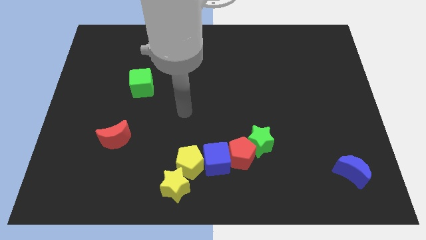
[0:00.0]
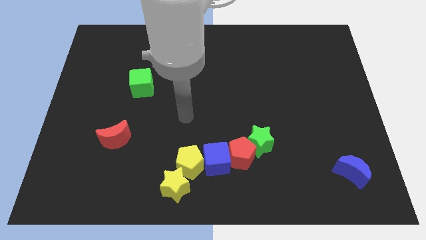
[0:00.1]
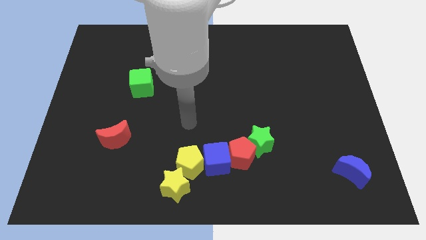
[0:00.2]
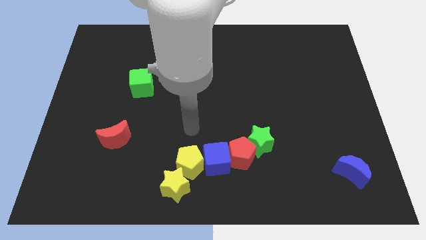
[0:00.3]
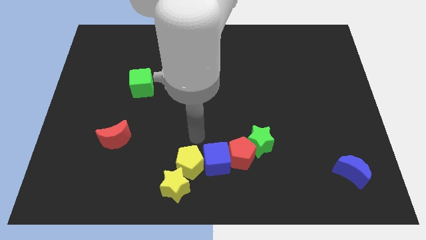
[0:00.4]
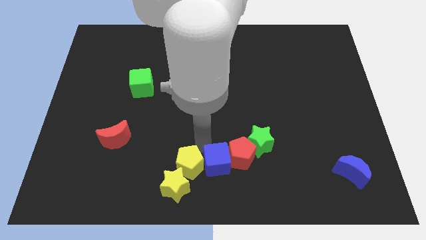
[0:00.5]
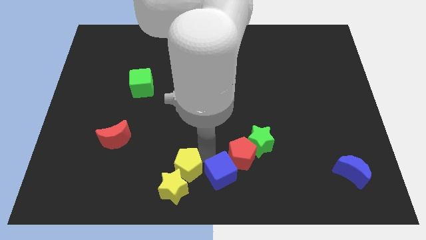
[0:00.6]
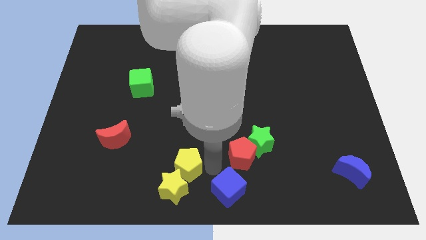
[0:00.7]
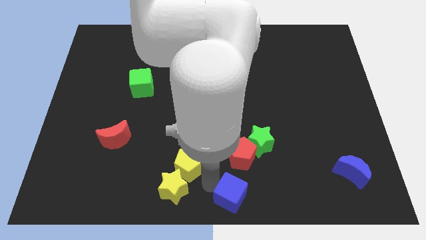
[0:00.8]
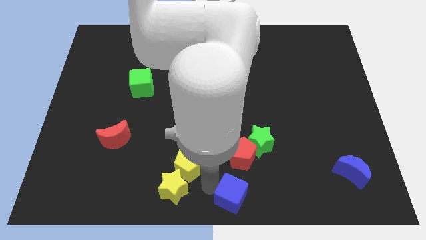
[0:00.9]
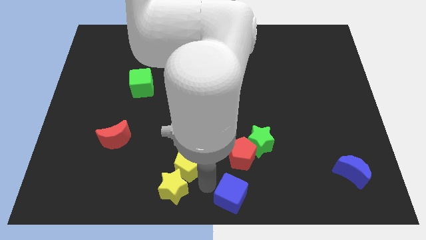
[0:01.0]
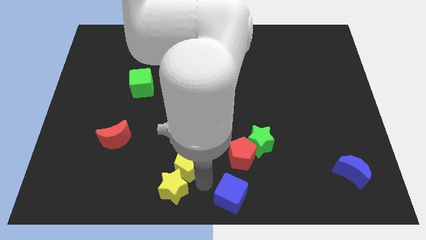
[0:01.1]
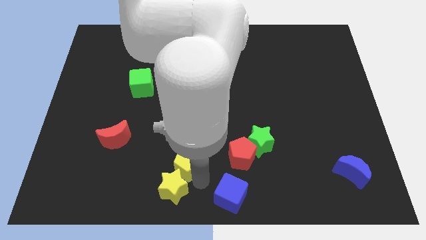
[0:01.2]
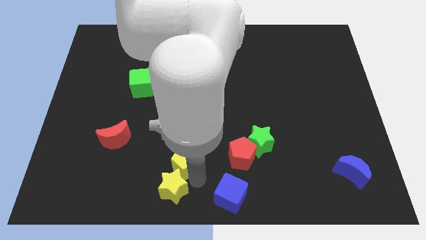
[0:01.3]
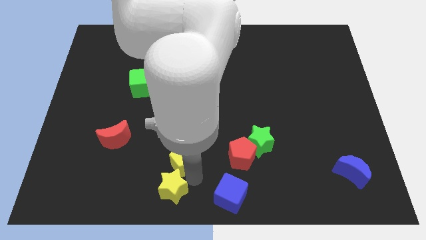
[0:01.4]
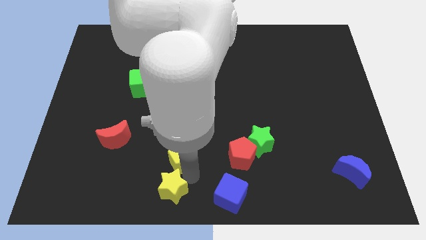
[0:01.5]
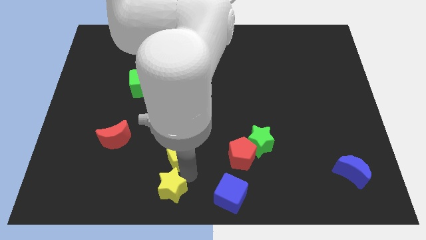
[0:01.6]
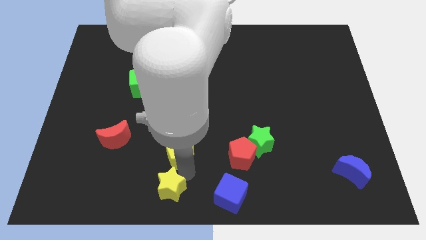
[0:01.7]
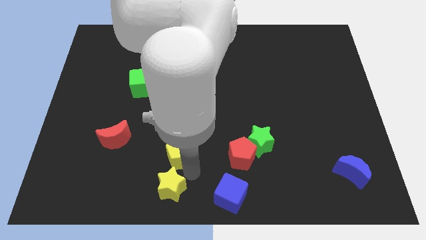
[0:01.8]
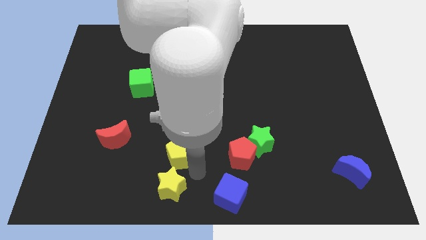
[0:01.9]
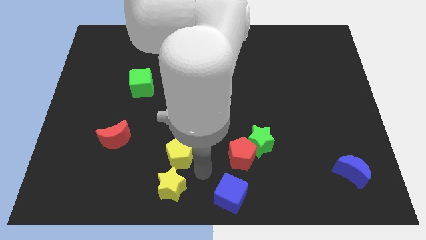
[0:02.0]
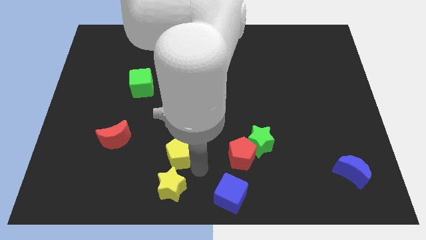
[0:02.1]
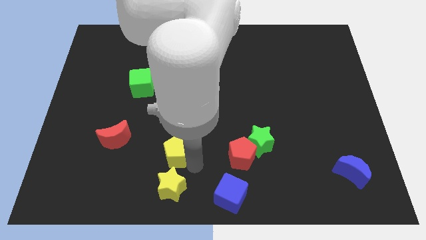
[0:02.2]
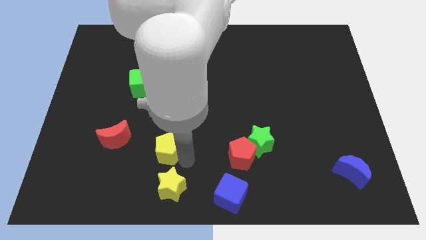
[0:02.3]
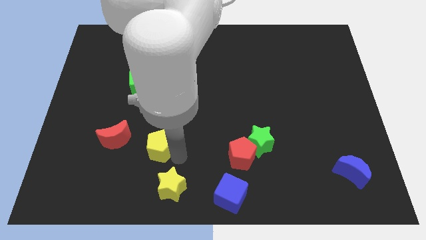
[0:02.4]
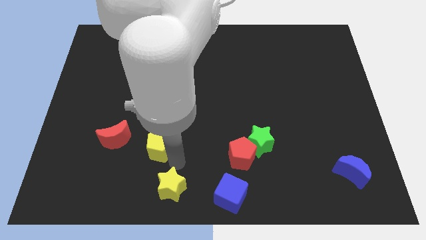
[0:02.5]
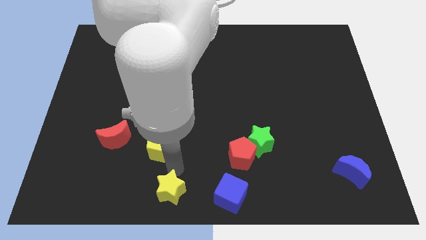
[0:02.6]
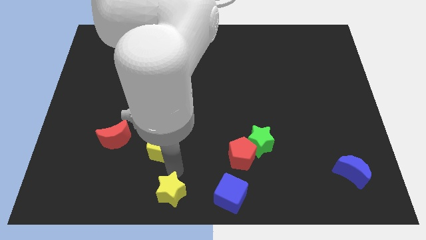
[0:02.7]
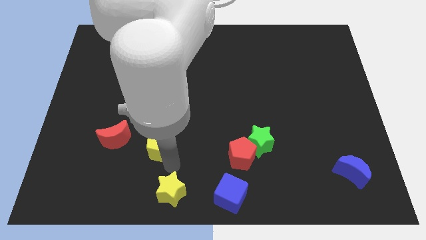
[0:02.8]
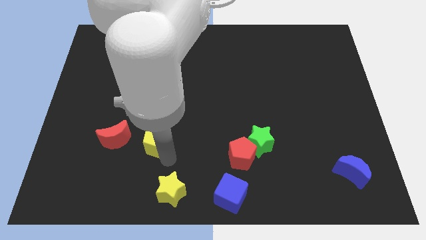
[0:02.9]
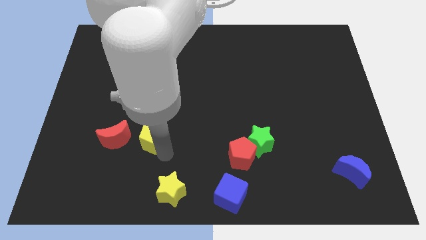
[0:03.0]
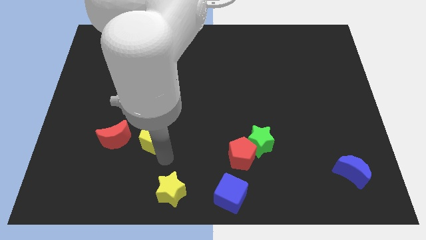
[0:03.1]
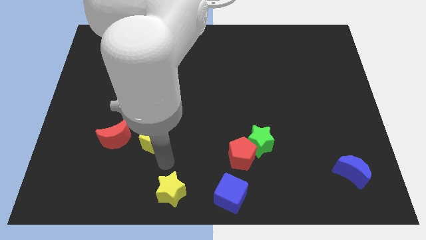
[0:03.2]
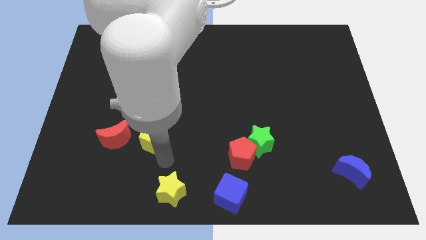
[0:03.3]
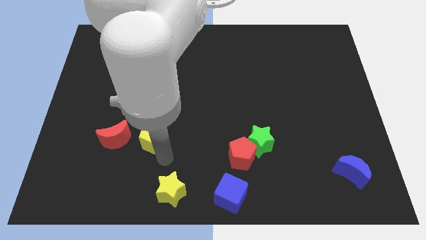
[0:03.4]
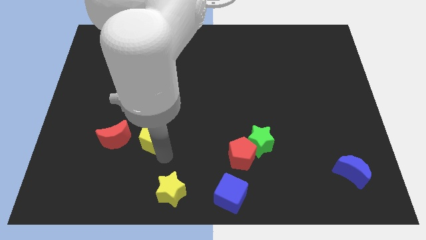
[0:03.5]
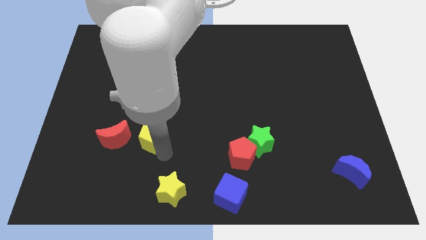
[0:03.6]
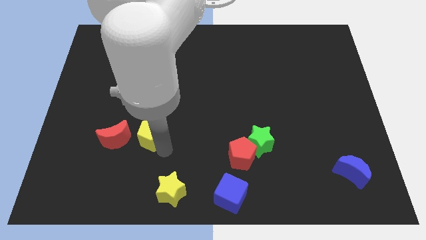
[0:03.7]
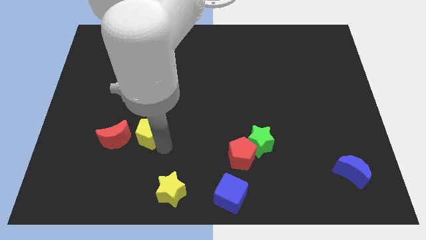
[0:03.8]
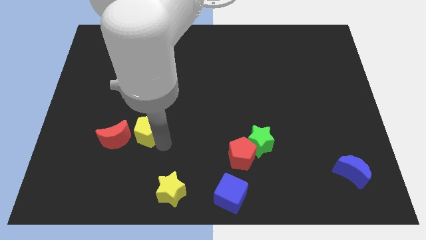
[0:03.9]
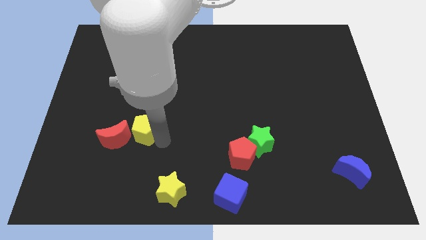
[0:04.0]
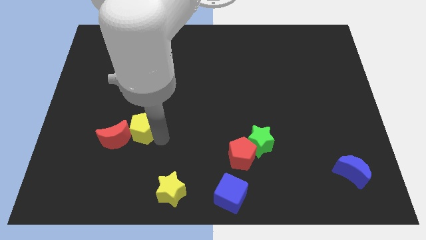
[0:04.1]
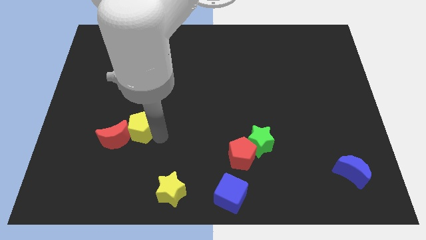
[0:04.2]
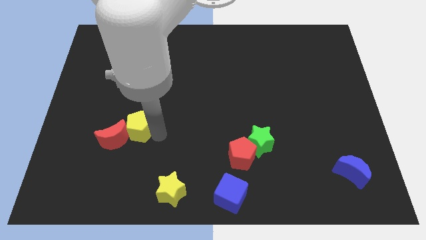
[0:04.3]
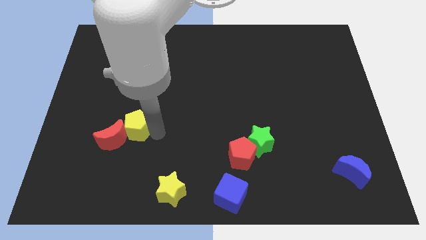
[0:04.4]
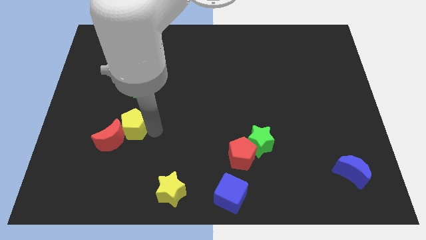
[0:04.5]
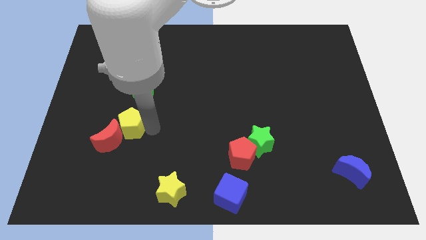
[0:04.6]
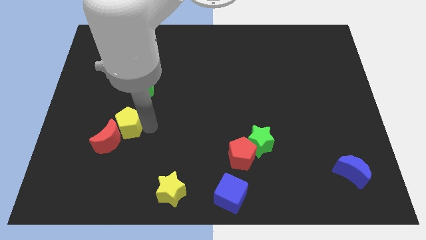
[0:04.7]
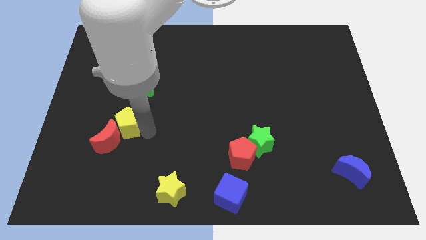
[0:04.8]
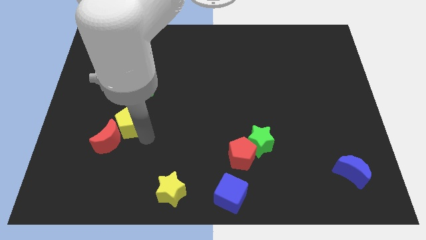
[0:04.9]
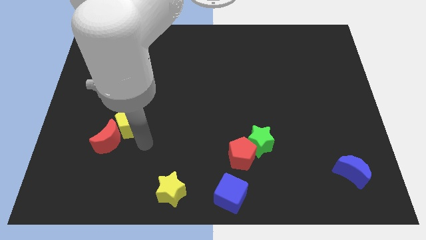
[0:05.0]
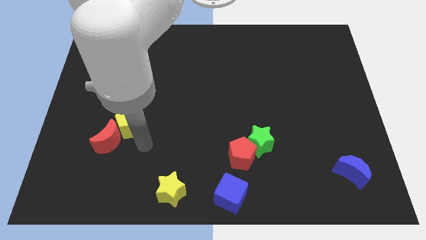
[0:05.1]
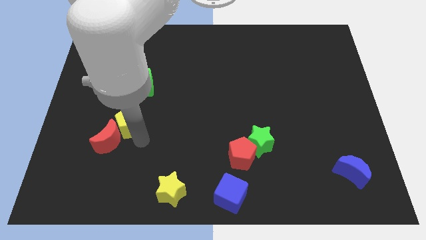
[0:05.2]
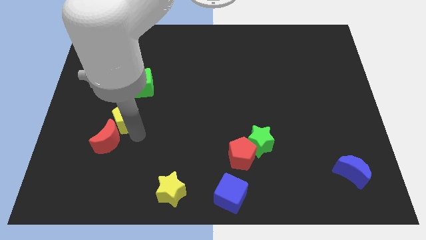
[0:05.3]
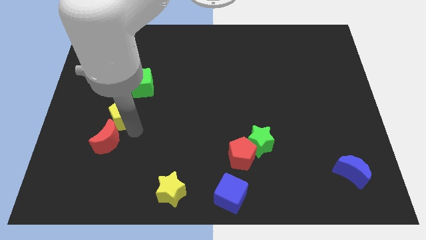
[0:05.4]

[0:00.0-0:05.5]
move the yellow pentagon upwards and then to the left

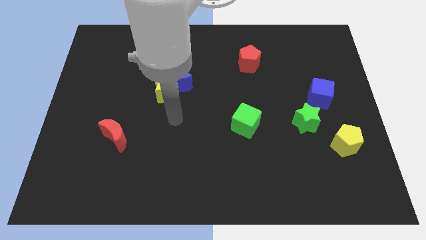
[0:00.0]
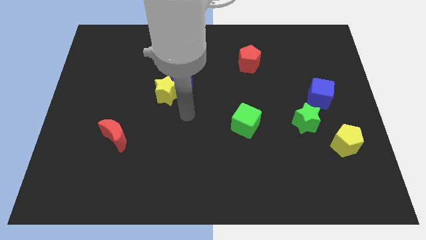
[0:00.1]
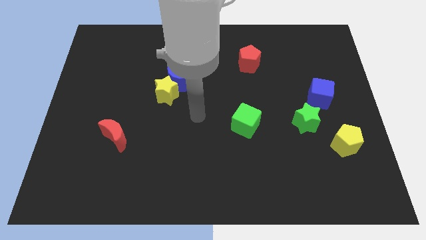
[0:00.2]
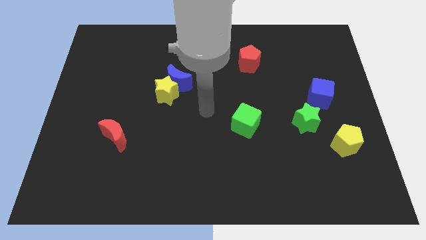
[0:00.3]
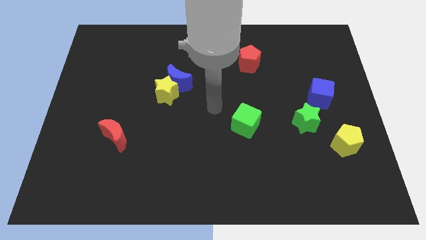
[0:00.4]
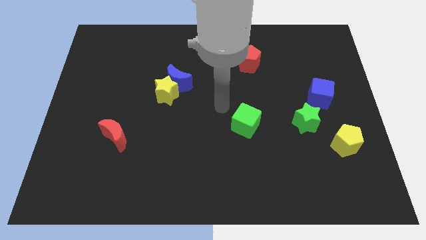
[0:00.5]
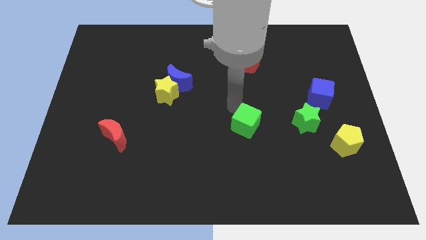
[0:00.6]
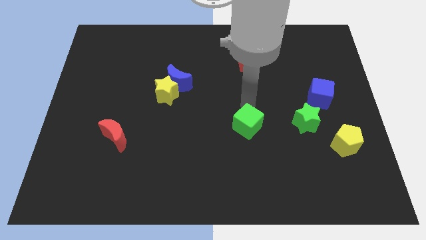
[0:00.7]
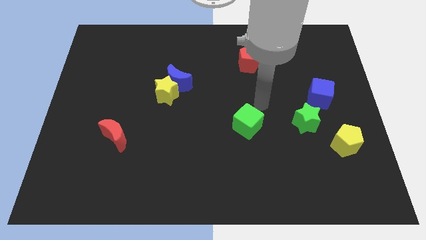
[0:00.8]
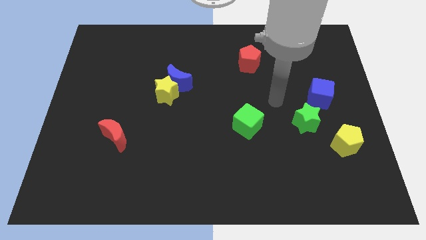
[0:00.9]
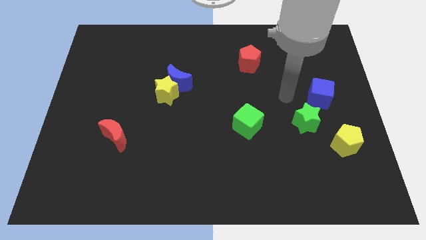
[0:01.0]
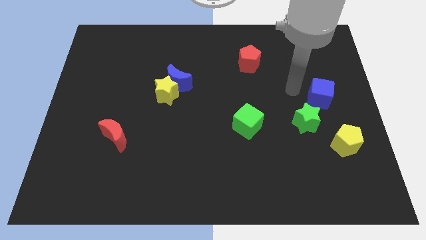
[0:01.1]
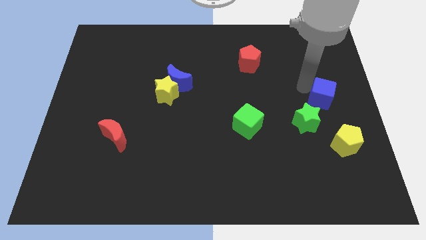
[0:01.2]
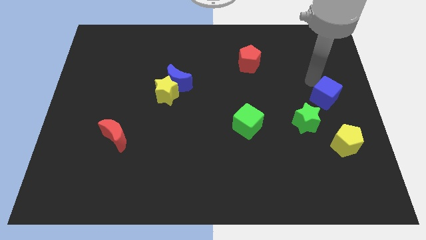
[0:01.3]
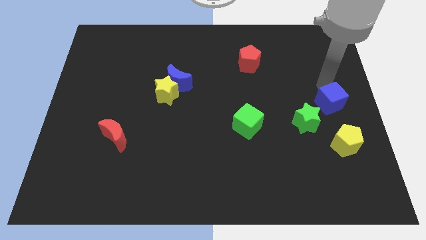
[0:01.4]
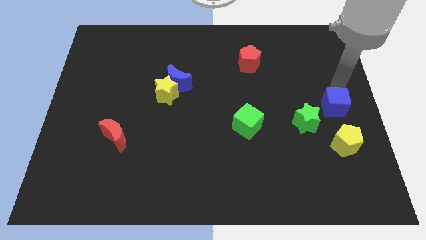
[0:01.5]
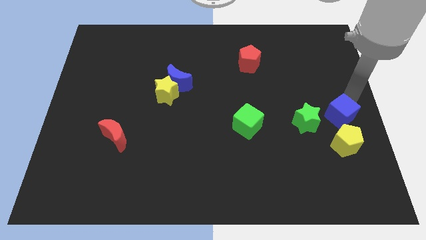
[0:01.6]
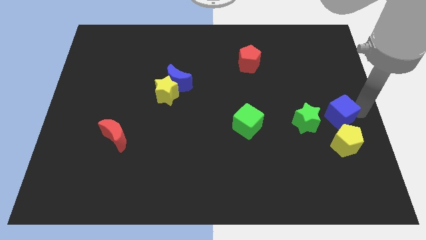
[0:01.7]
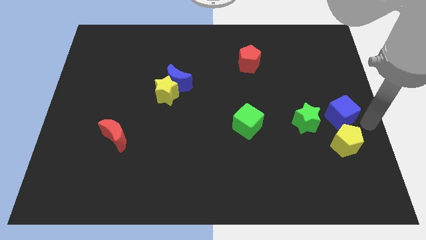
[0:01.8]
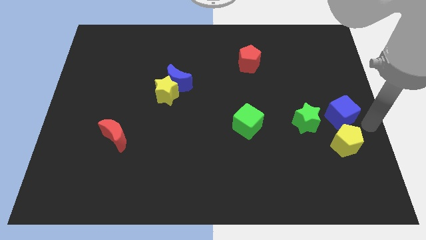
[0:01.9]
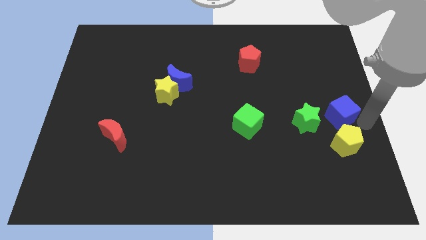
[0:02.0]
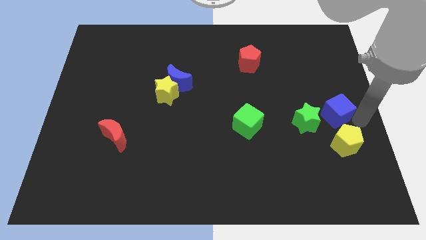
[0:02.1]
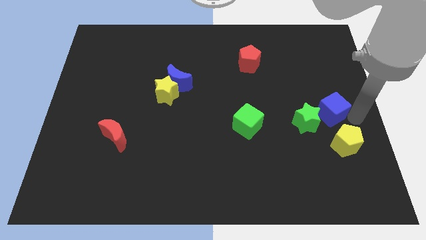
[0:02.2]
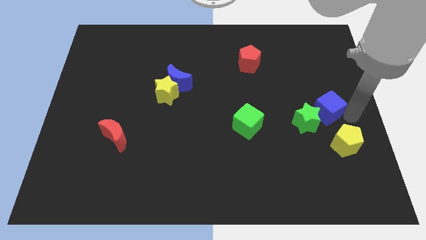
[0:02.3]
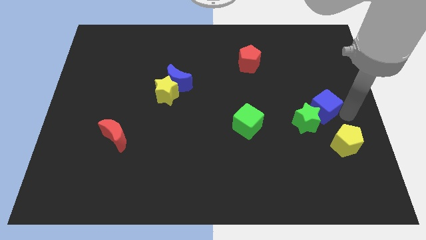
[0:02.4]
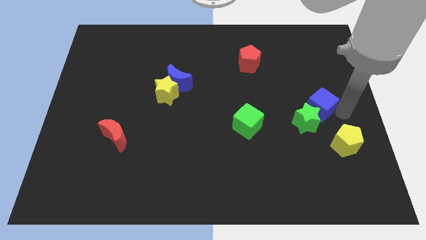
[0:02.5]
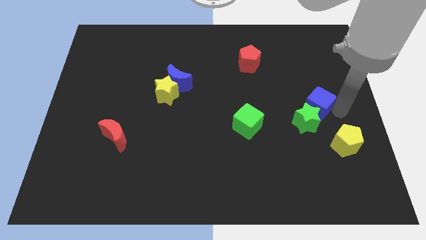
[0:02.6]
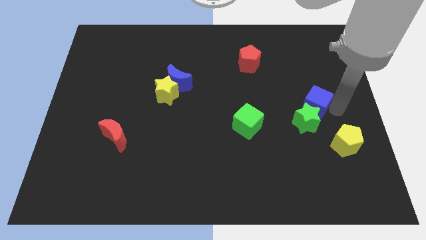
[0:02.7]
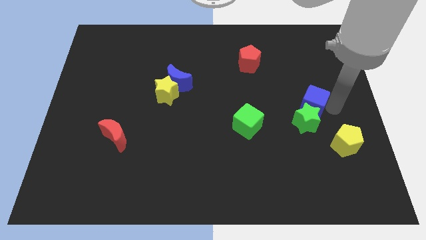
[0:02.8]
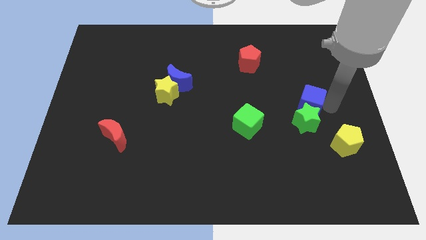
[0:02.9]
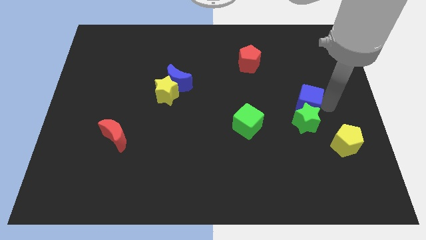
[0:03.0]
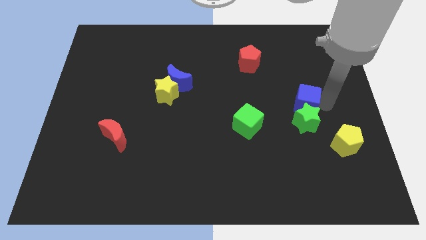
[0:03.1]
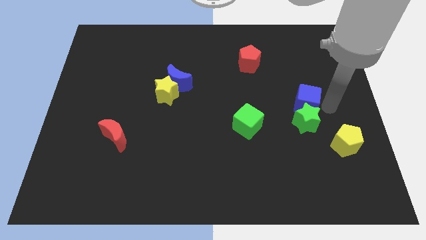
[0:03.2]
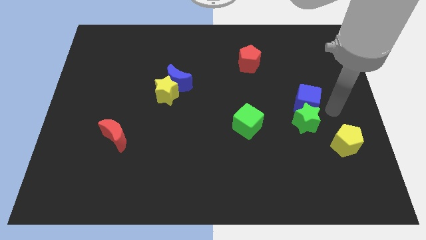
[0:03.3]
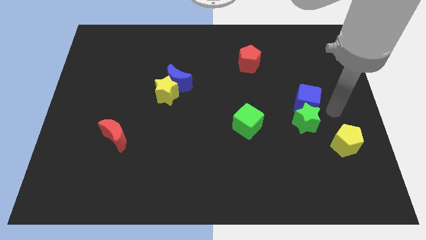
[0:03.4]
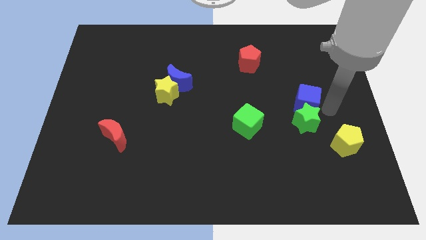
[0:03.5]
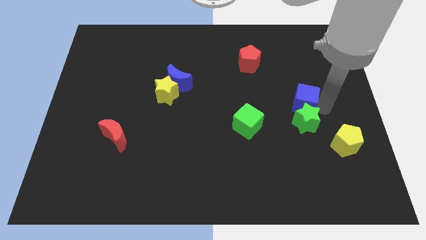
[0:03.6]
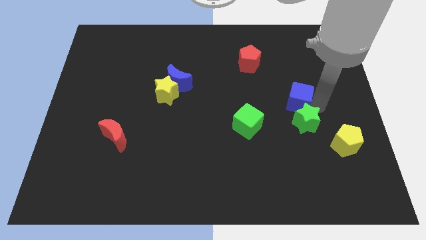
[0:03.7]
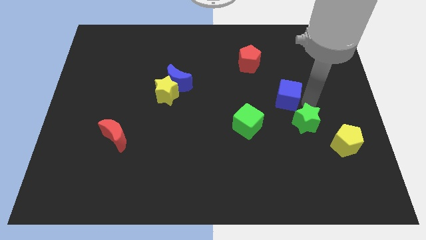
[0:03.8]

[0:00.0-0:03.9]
push the blue cube a little bit to the left
